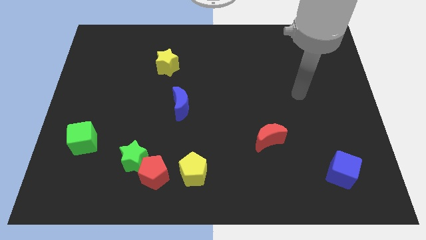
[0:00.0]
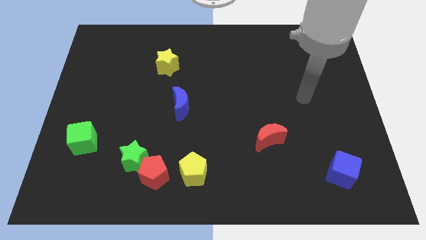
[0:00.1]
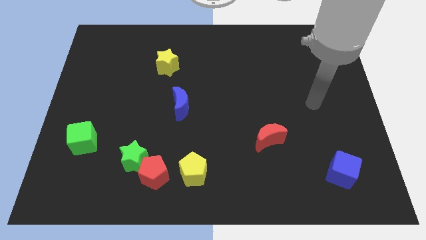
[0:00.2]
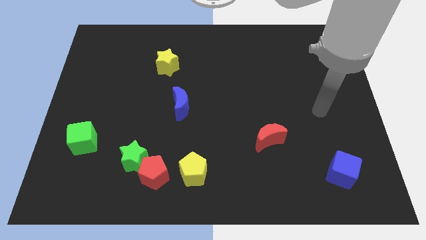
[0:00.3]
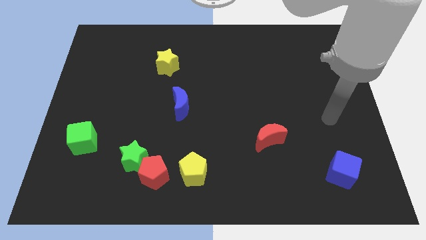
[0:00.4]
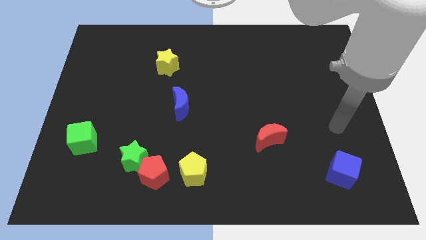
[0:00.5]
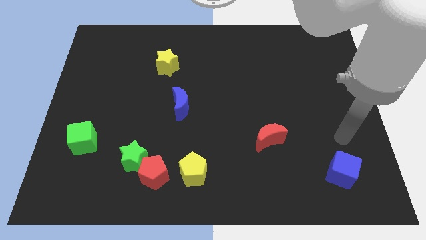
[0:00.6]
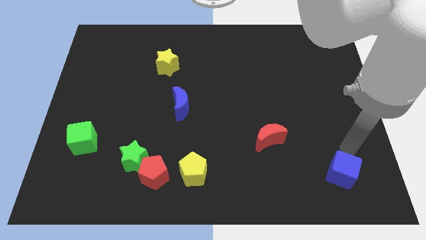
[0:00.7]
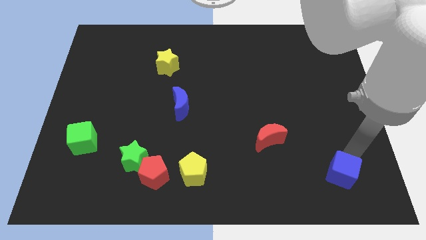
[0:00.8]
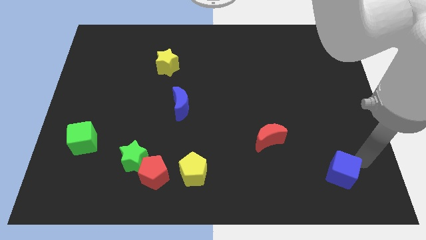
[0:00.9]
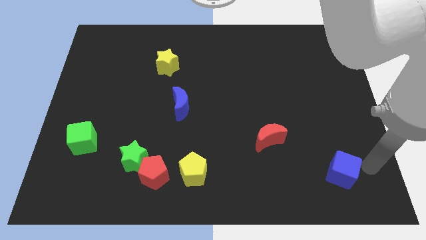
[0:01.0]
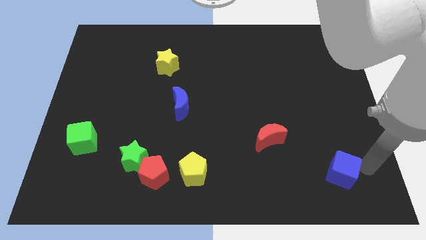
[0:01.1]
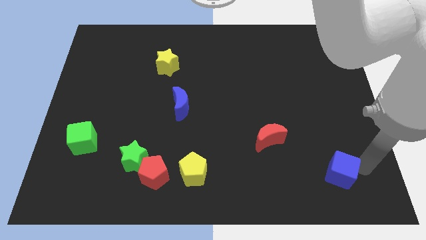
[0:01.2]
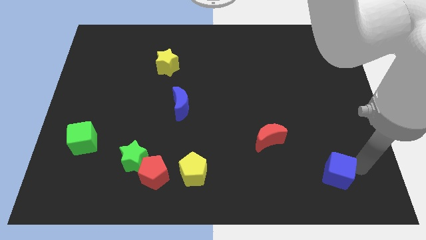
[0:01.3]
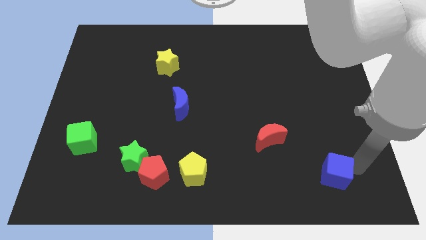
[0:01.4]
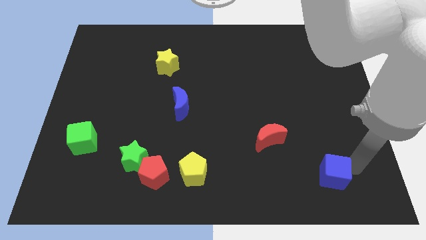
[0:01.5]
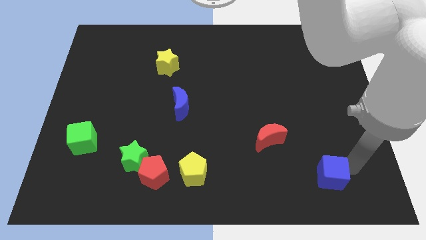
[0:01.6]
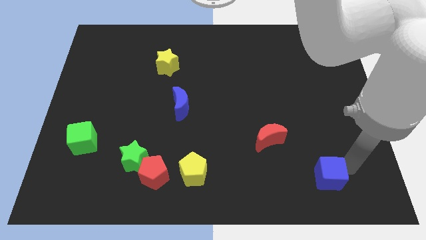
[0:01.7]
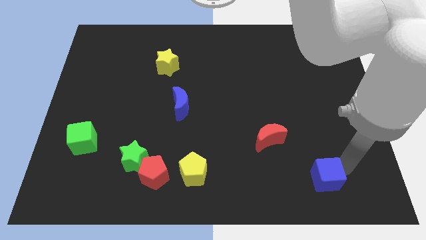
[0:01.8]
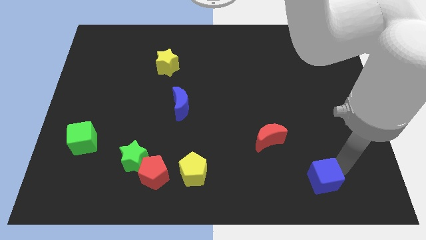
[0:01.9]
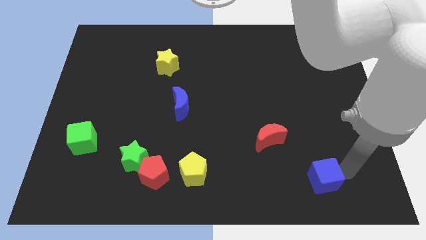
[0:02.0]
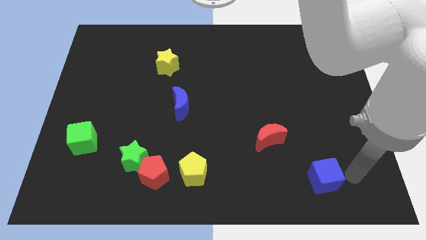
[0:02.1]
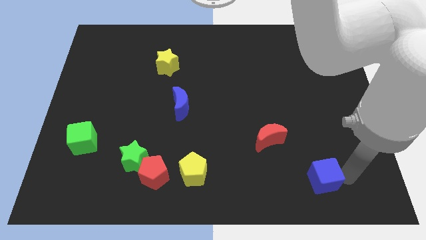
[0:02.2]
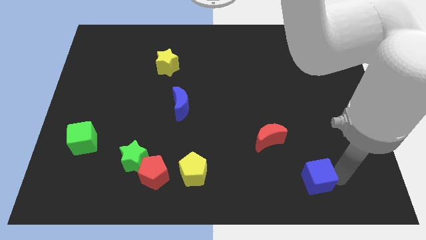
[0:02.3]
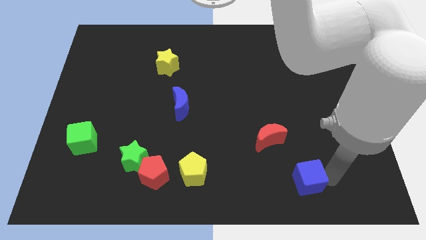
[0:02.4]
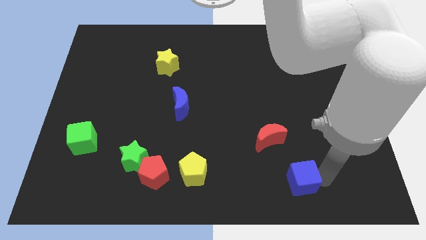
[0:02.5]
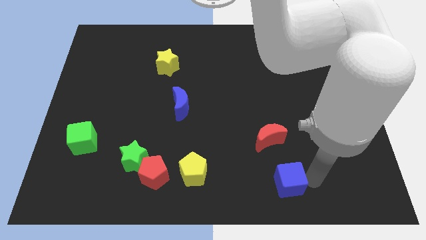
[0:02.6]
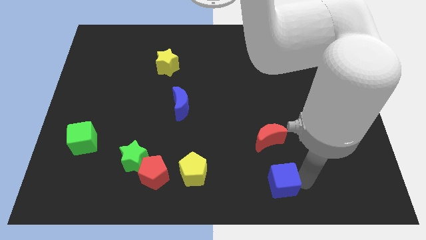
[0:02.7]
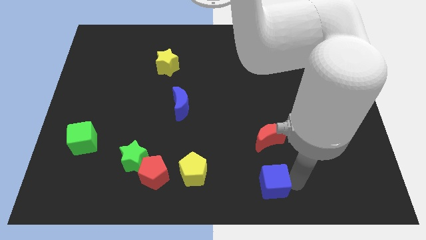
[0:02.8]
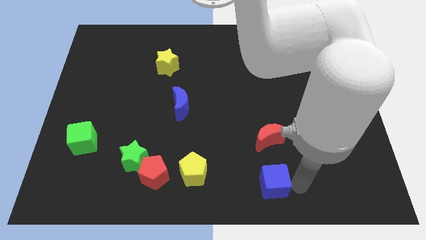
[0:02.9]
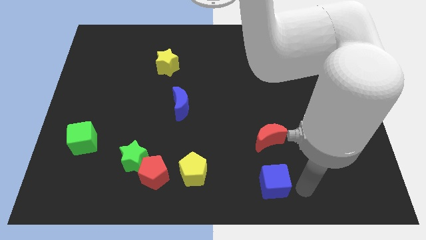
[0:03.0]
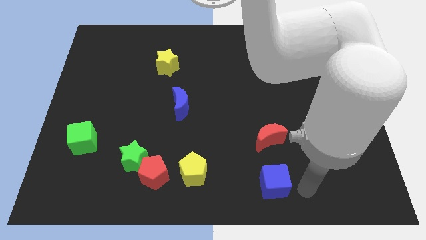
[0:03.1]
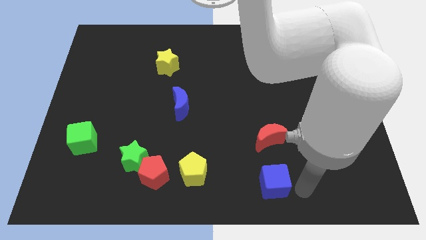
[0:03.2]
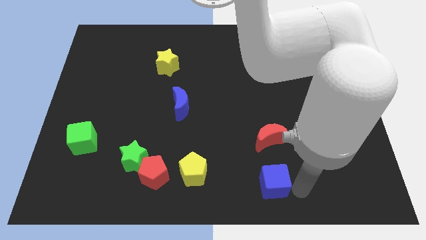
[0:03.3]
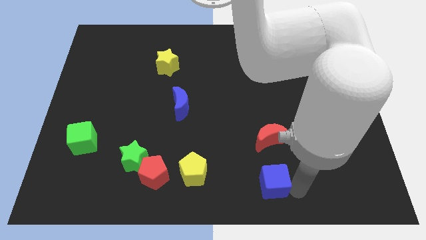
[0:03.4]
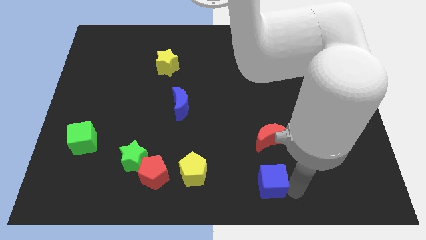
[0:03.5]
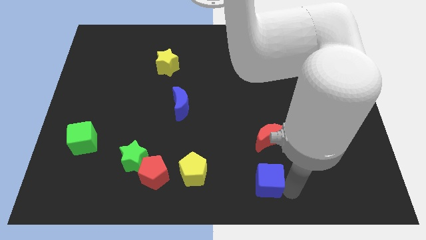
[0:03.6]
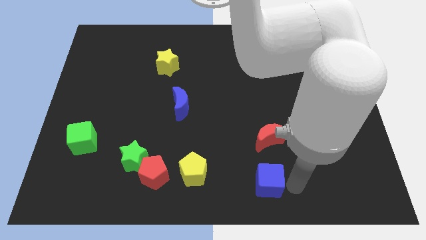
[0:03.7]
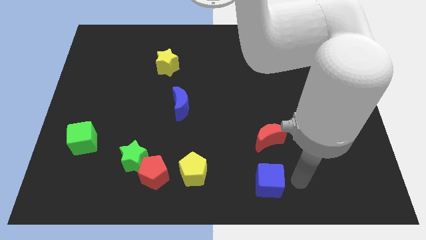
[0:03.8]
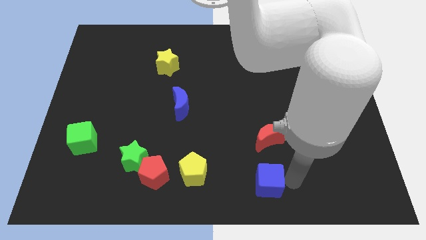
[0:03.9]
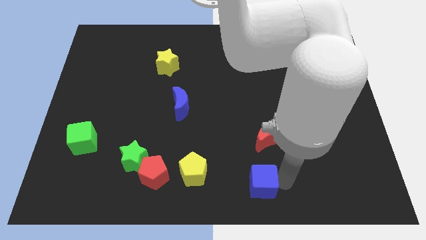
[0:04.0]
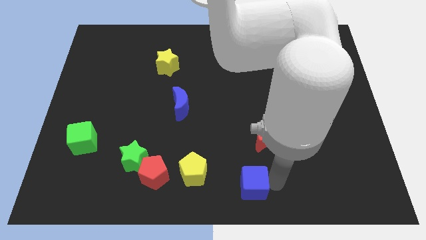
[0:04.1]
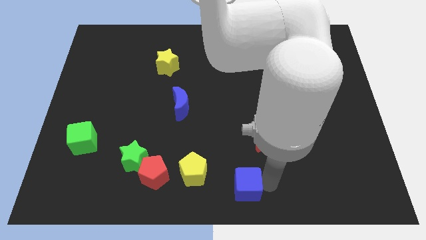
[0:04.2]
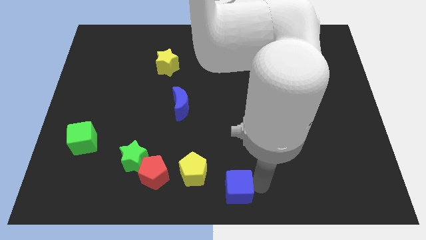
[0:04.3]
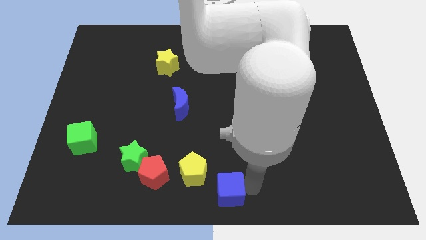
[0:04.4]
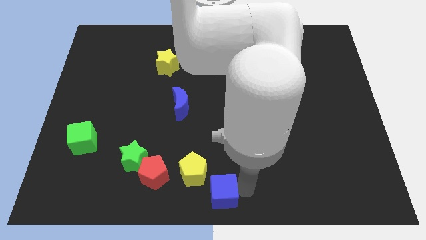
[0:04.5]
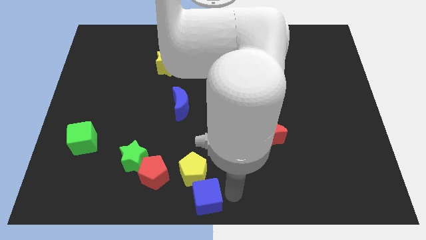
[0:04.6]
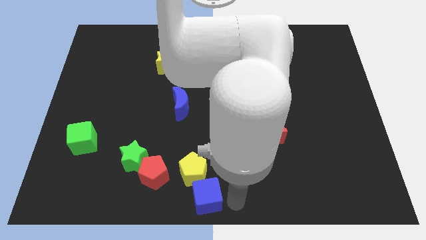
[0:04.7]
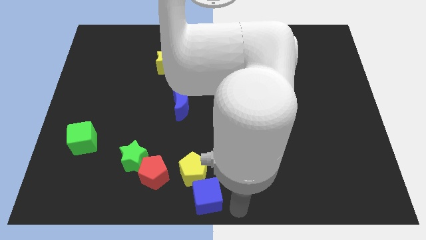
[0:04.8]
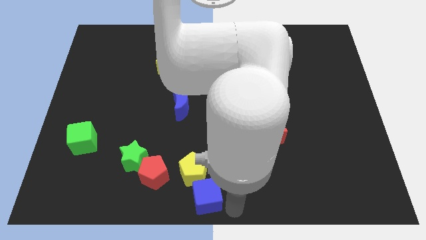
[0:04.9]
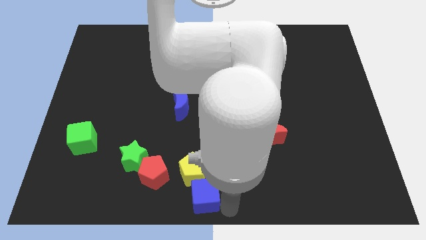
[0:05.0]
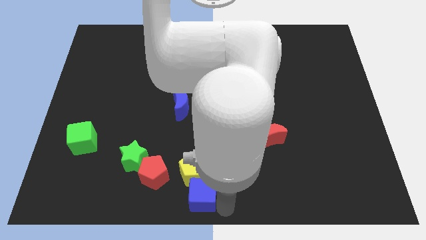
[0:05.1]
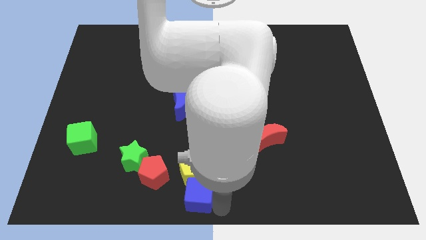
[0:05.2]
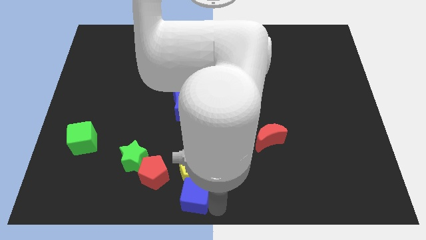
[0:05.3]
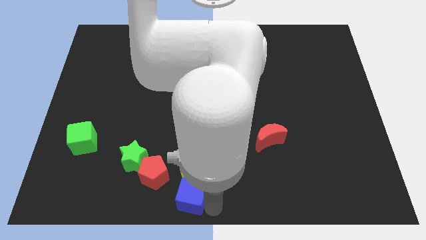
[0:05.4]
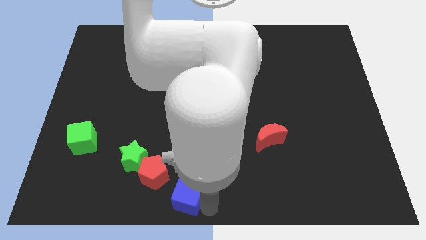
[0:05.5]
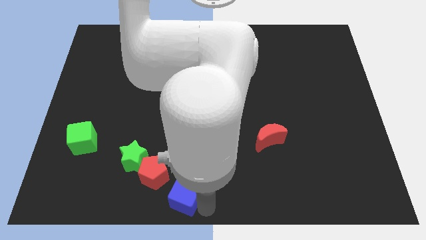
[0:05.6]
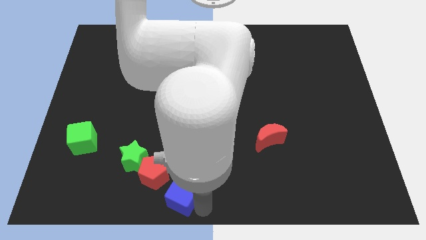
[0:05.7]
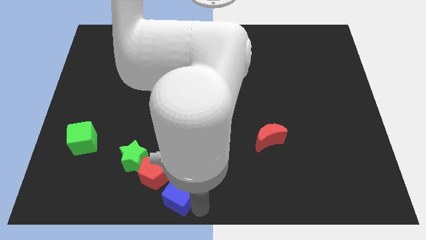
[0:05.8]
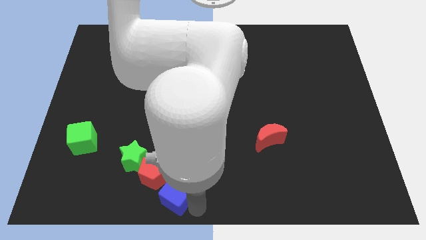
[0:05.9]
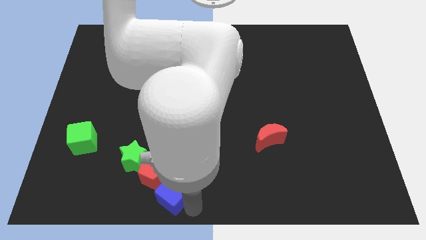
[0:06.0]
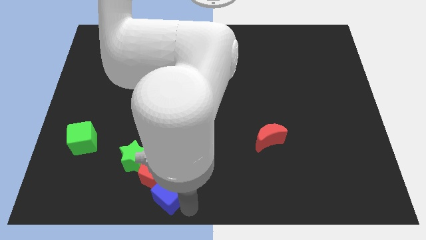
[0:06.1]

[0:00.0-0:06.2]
slide the blue cube to the red pentagon

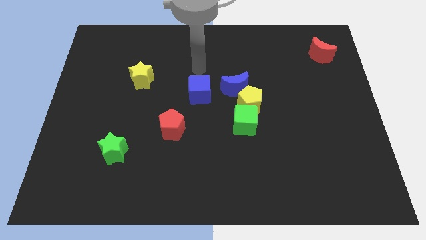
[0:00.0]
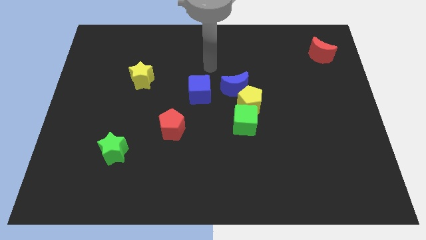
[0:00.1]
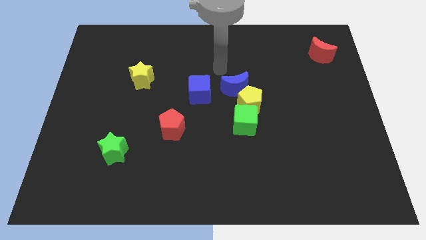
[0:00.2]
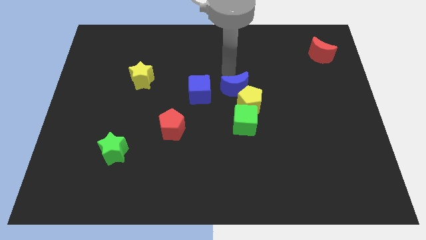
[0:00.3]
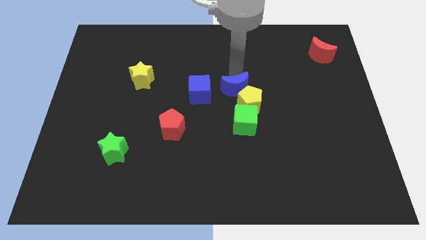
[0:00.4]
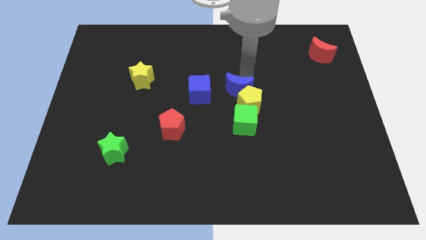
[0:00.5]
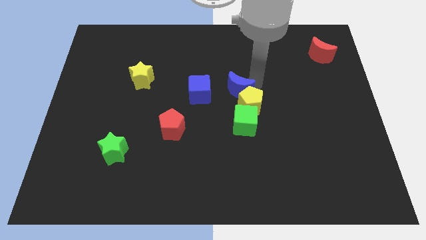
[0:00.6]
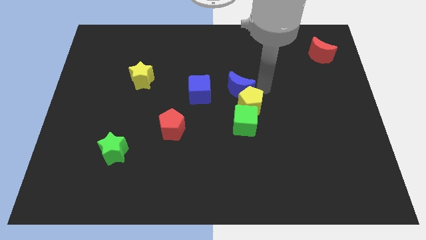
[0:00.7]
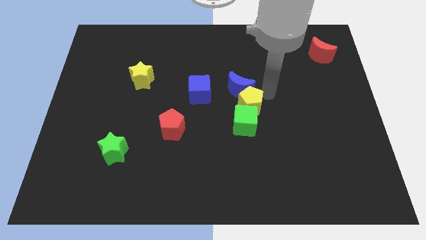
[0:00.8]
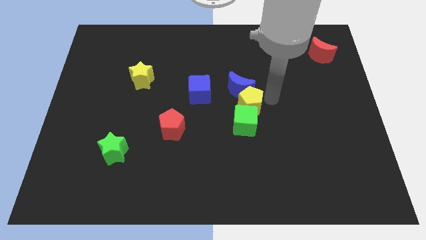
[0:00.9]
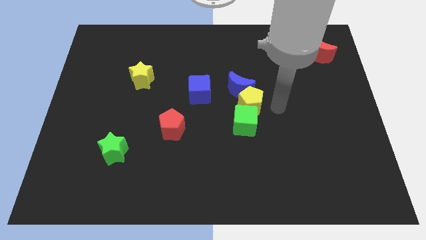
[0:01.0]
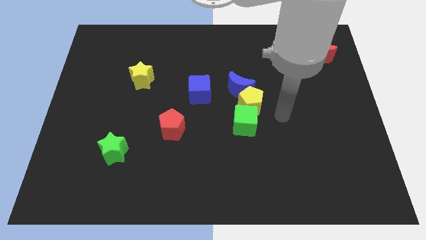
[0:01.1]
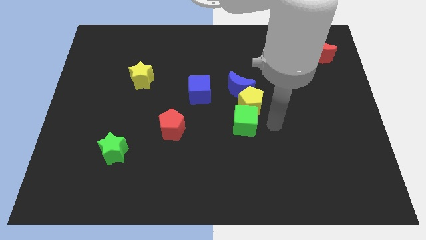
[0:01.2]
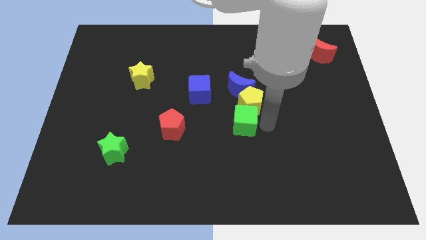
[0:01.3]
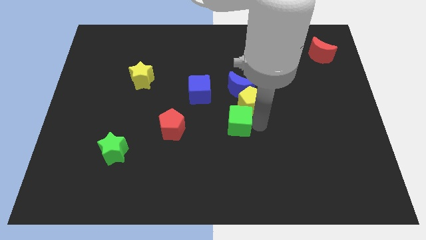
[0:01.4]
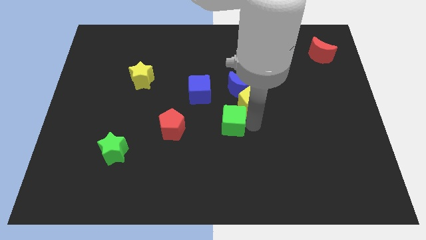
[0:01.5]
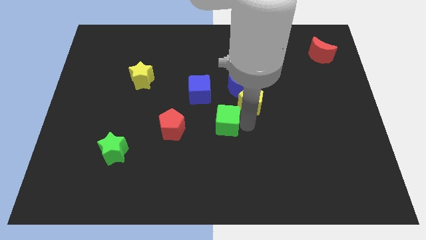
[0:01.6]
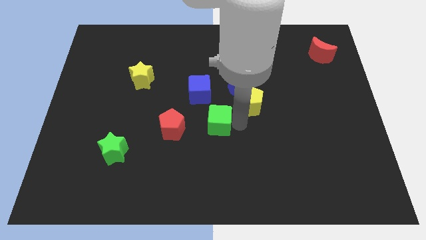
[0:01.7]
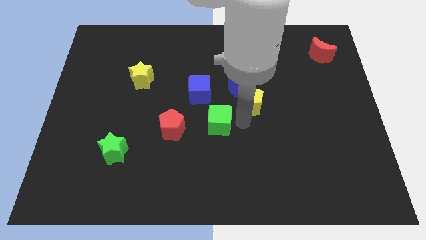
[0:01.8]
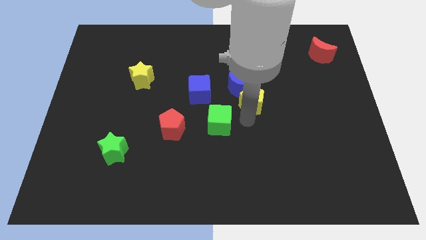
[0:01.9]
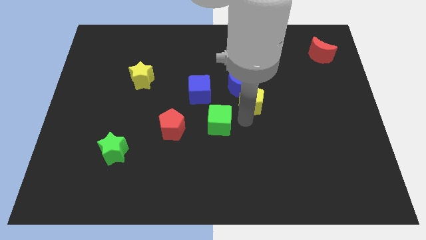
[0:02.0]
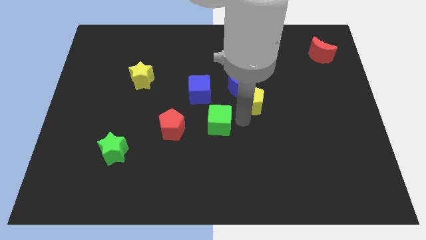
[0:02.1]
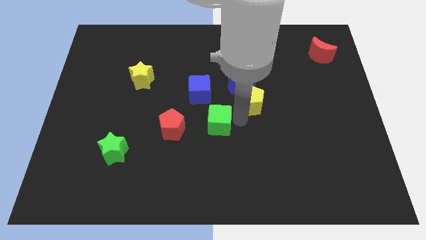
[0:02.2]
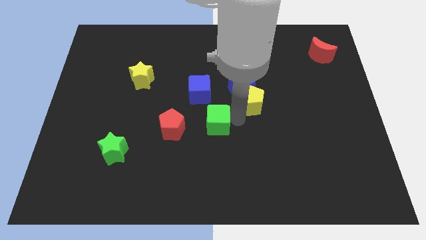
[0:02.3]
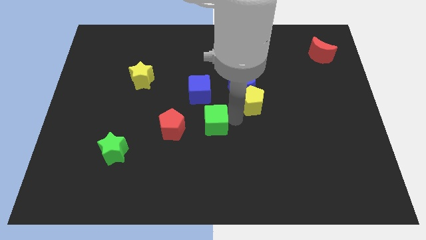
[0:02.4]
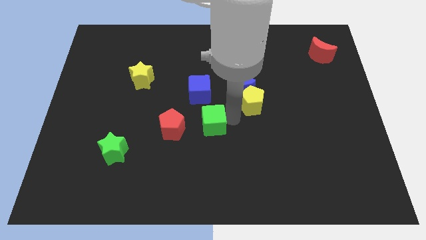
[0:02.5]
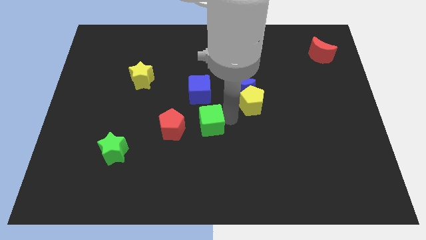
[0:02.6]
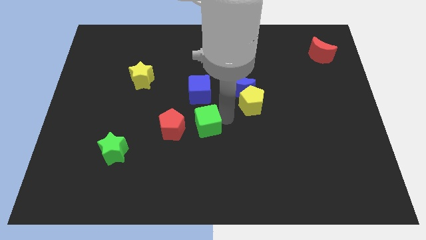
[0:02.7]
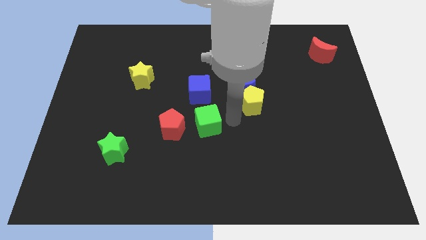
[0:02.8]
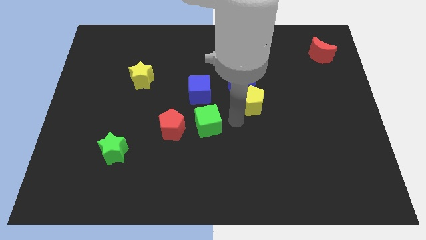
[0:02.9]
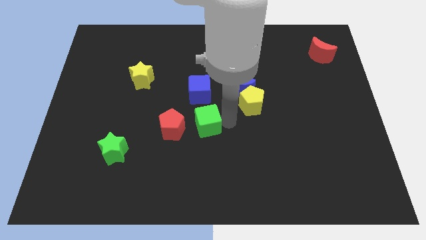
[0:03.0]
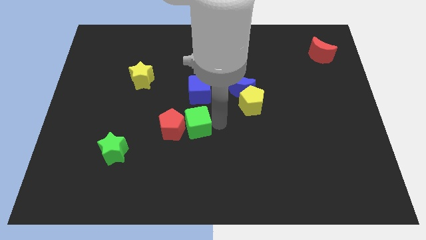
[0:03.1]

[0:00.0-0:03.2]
slide the green cube to the red pentagon
